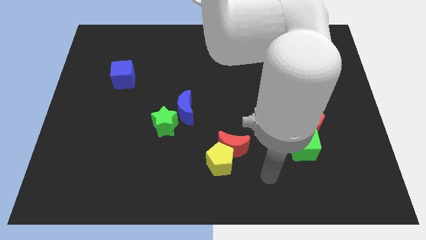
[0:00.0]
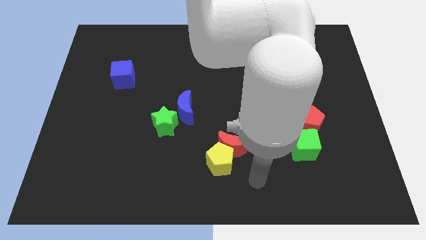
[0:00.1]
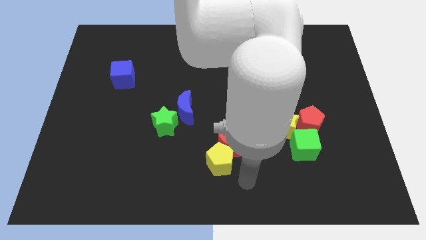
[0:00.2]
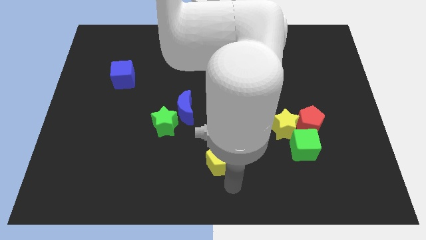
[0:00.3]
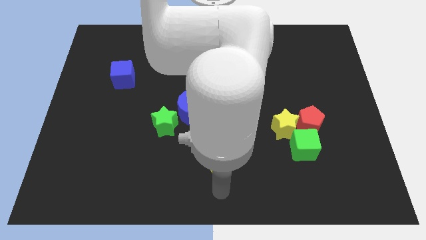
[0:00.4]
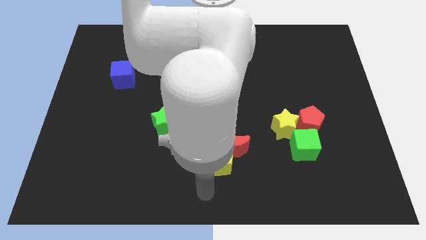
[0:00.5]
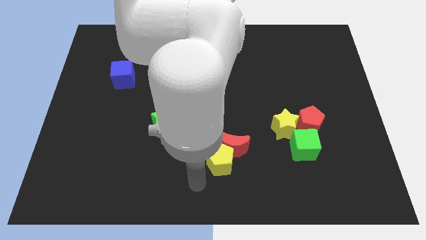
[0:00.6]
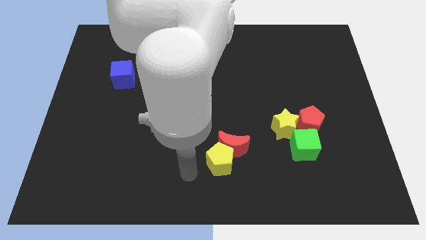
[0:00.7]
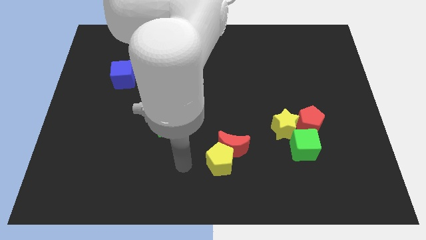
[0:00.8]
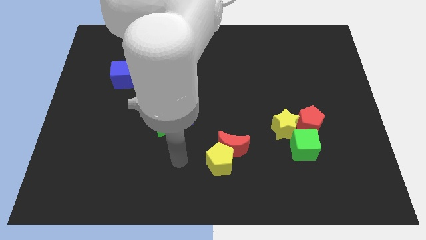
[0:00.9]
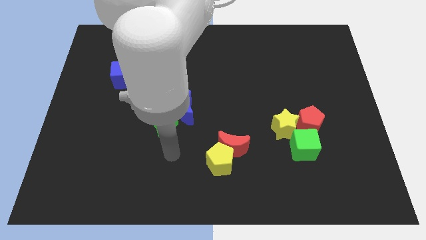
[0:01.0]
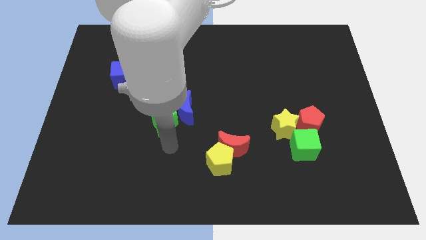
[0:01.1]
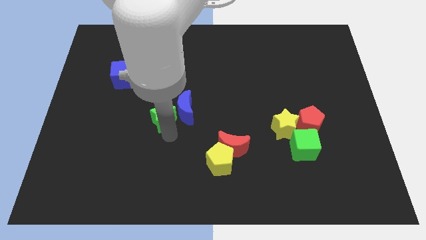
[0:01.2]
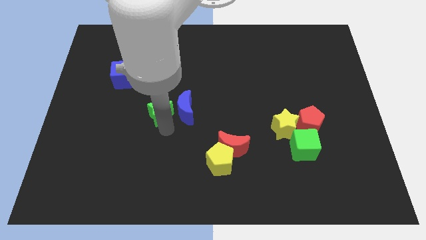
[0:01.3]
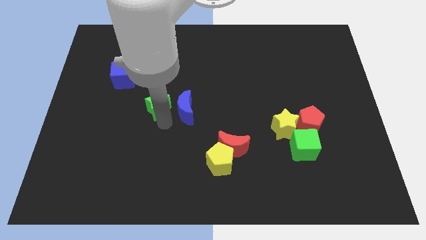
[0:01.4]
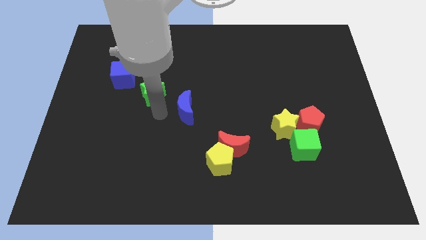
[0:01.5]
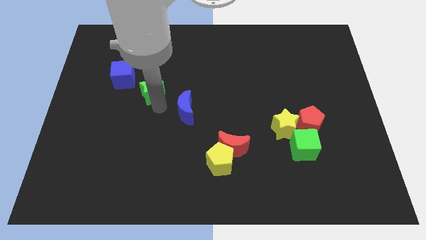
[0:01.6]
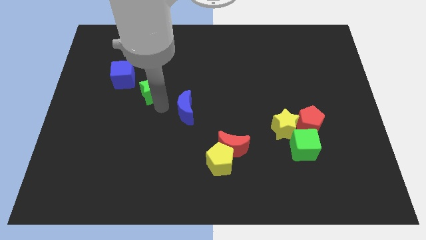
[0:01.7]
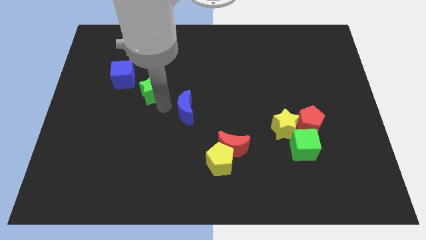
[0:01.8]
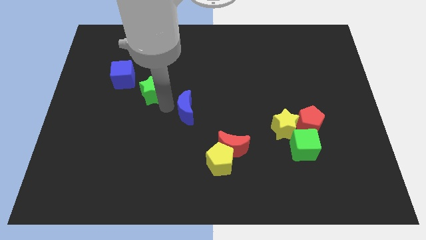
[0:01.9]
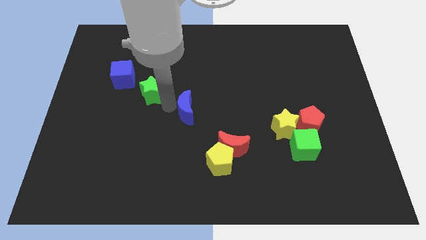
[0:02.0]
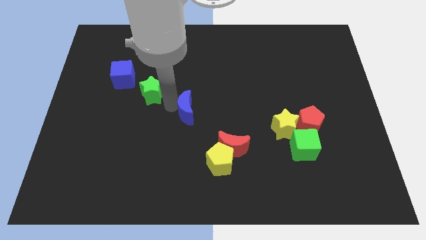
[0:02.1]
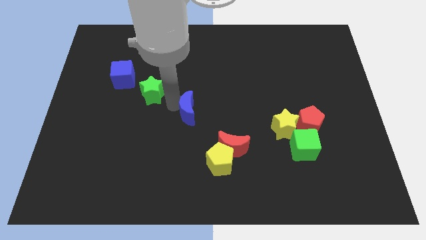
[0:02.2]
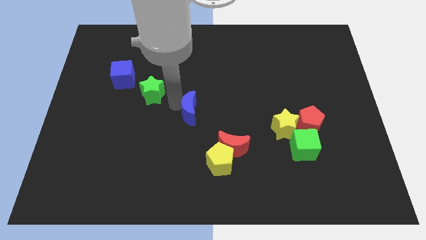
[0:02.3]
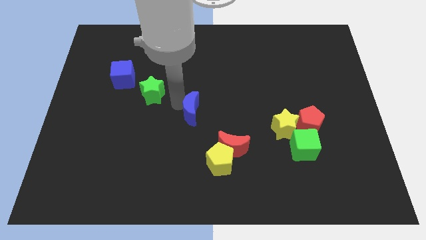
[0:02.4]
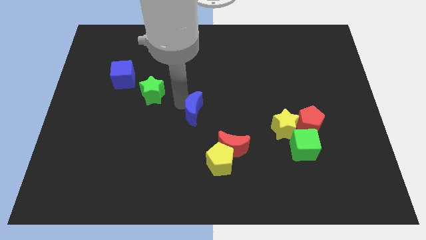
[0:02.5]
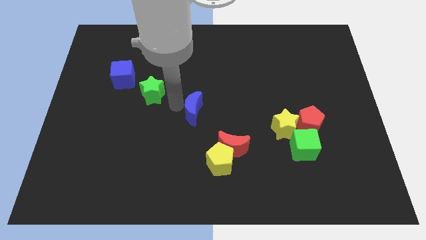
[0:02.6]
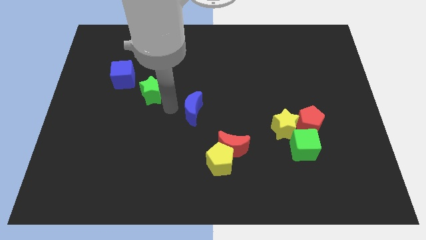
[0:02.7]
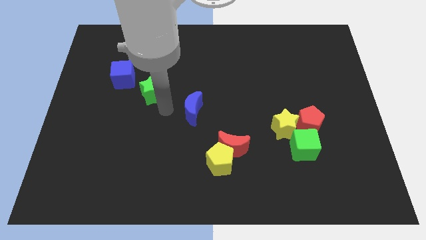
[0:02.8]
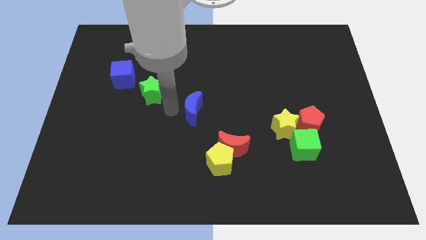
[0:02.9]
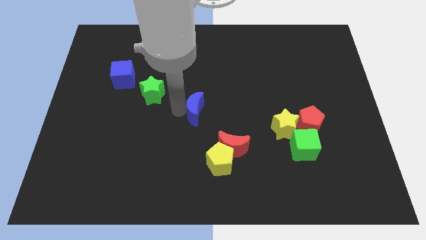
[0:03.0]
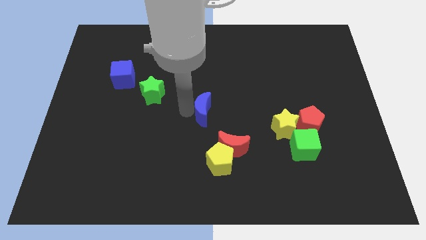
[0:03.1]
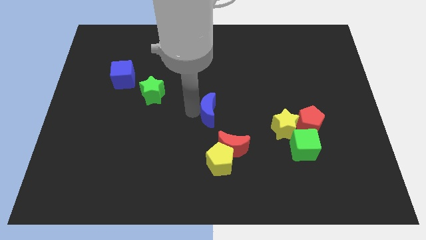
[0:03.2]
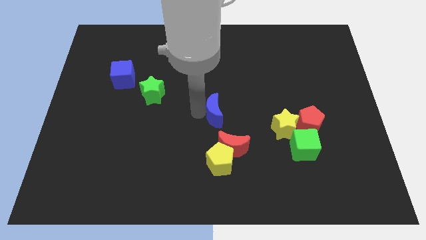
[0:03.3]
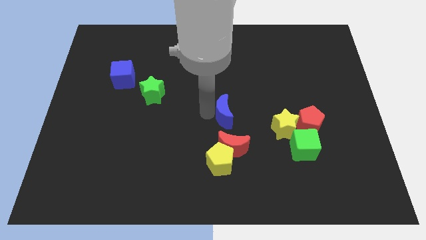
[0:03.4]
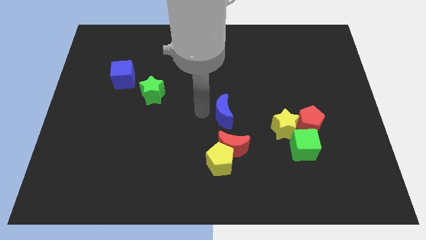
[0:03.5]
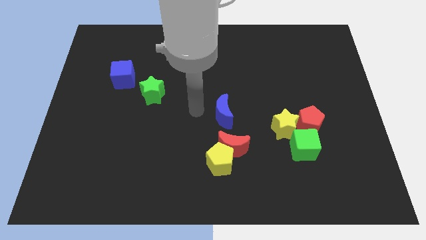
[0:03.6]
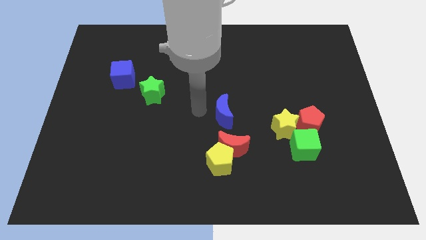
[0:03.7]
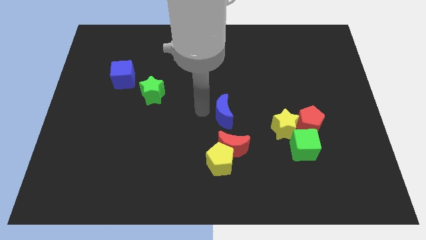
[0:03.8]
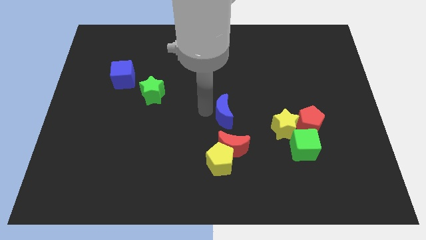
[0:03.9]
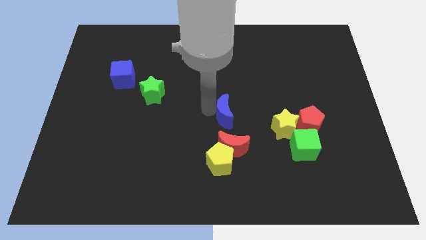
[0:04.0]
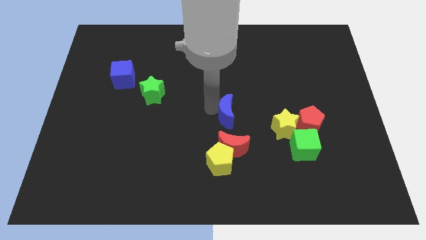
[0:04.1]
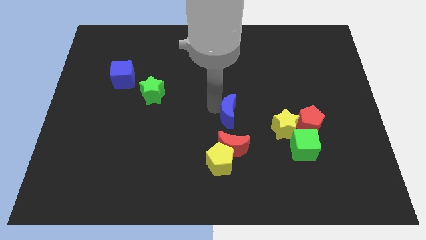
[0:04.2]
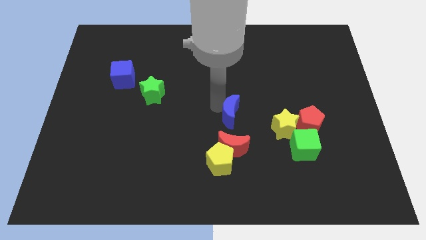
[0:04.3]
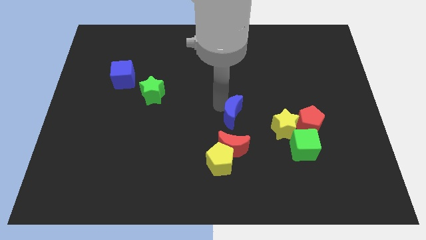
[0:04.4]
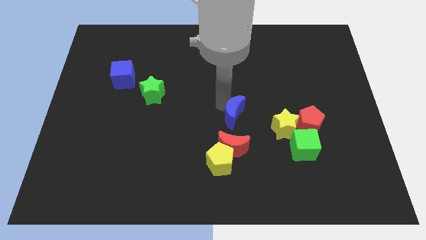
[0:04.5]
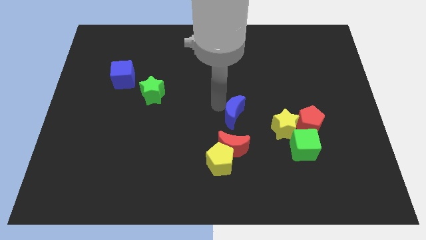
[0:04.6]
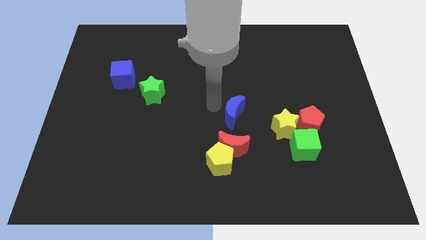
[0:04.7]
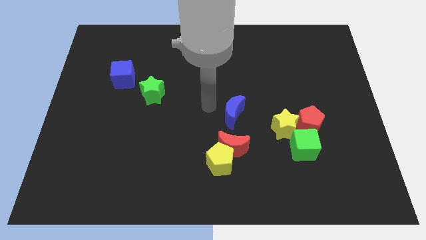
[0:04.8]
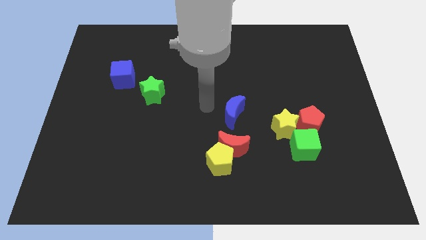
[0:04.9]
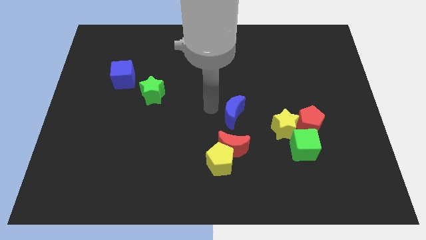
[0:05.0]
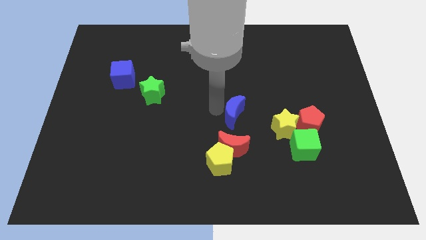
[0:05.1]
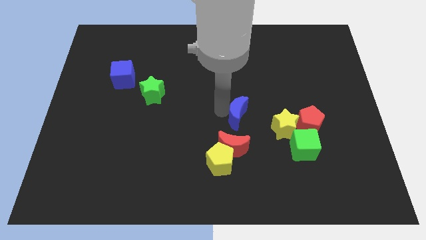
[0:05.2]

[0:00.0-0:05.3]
push the blue moon downwards and then right a bit

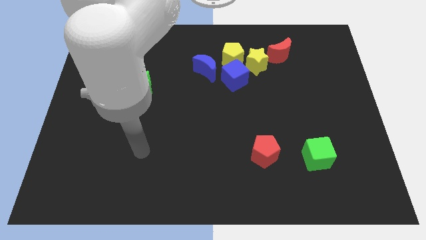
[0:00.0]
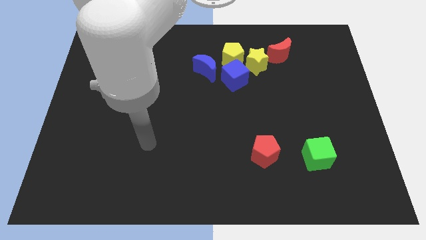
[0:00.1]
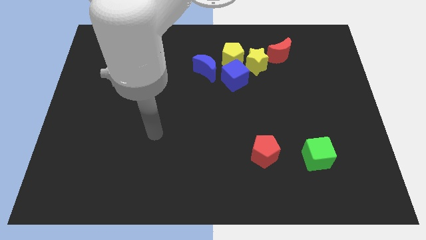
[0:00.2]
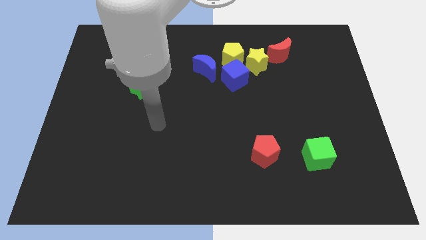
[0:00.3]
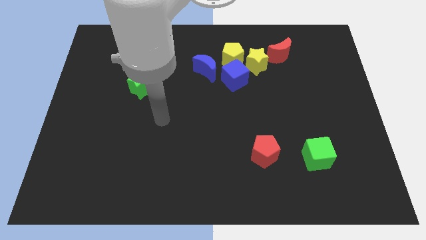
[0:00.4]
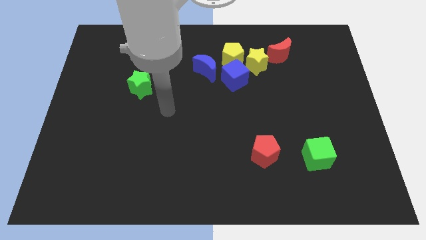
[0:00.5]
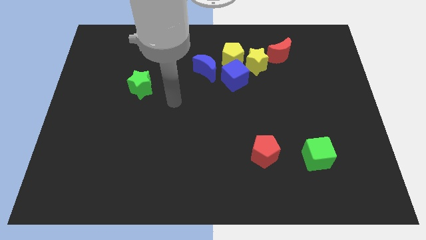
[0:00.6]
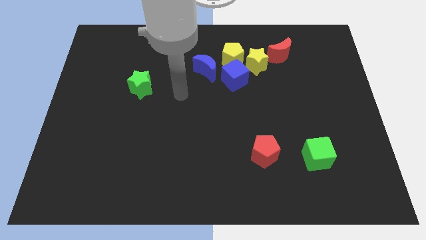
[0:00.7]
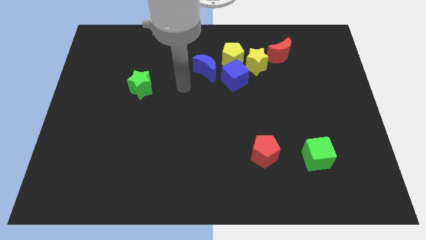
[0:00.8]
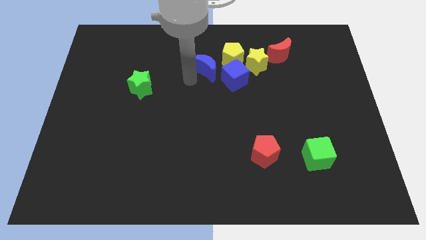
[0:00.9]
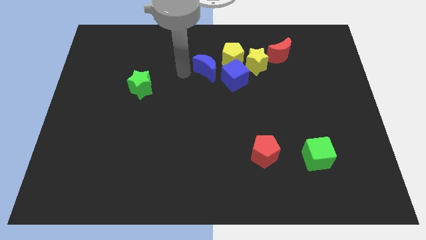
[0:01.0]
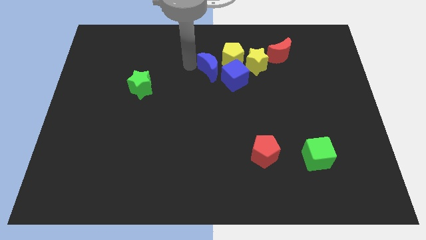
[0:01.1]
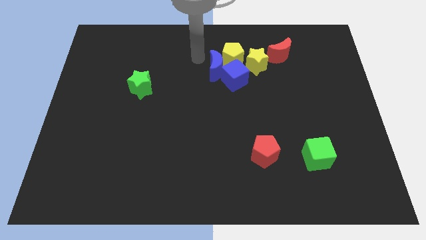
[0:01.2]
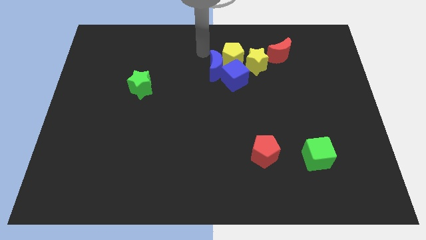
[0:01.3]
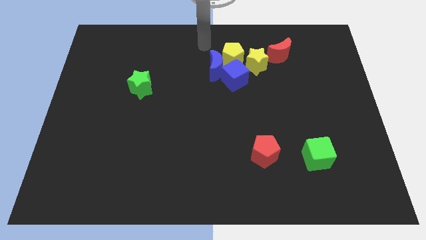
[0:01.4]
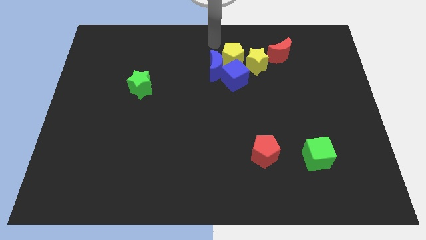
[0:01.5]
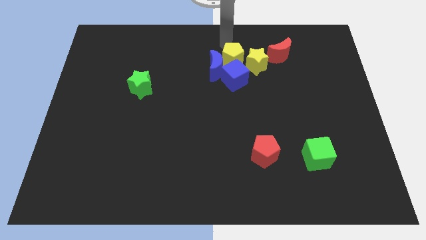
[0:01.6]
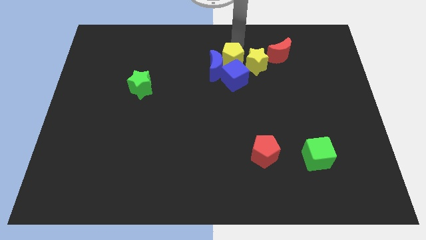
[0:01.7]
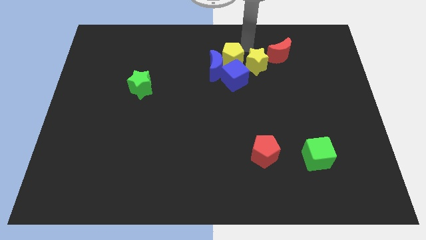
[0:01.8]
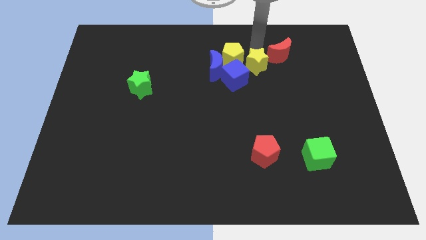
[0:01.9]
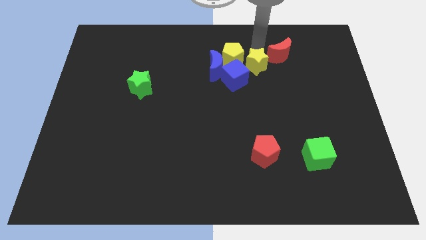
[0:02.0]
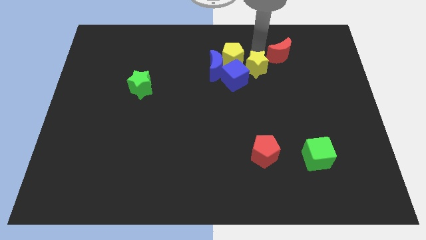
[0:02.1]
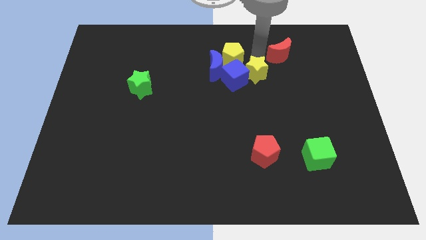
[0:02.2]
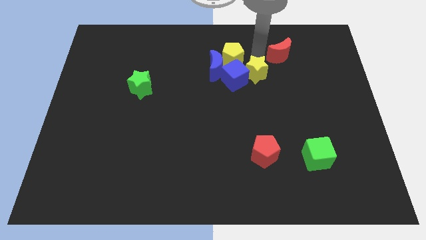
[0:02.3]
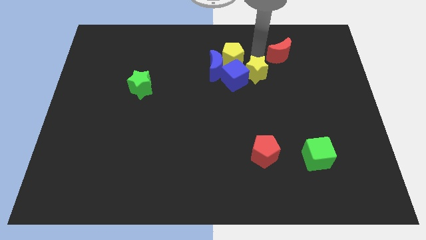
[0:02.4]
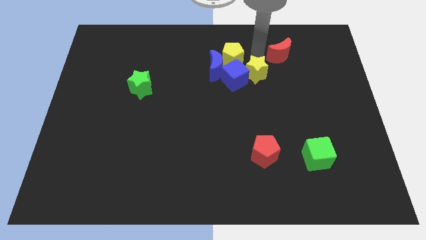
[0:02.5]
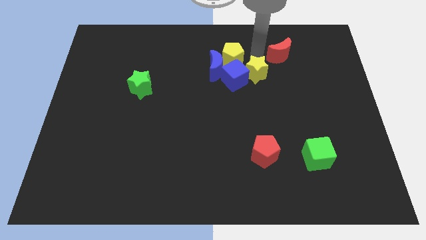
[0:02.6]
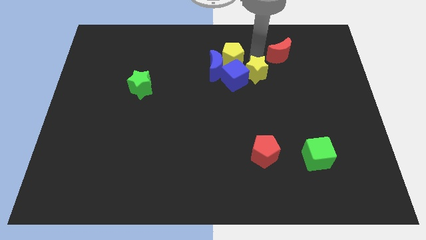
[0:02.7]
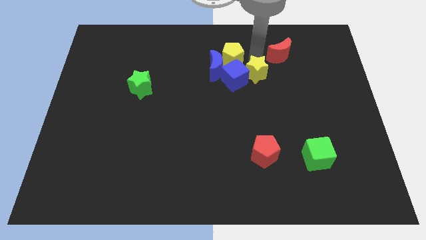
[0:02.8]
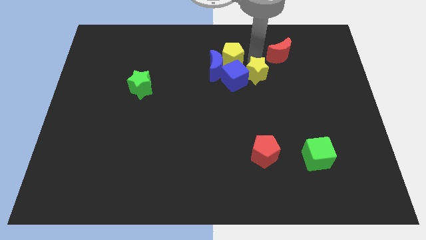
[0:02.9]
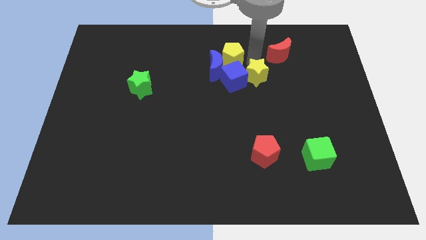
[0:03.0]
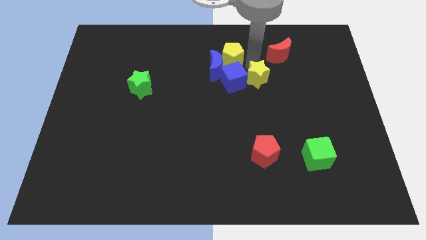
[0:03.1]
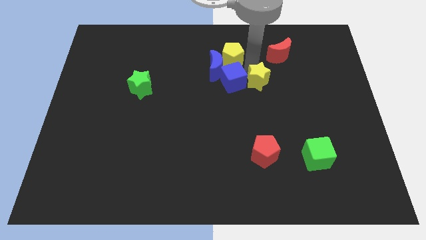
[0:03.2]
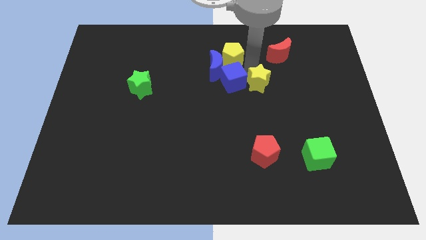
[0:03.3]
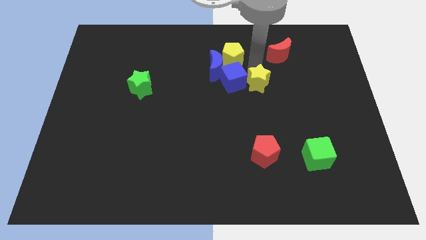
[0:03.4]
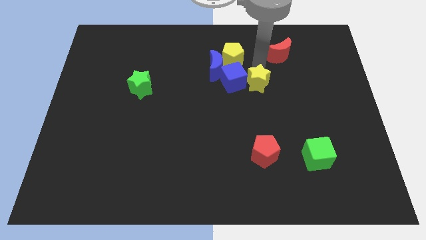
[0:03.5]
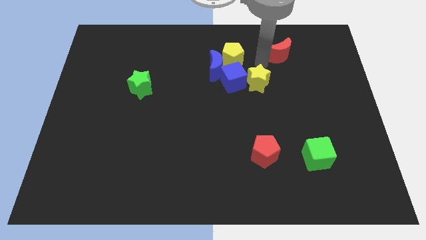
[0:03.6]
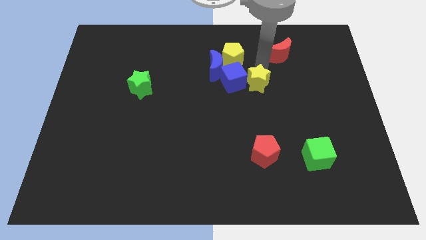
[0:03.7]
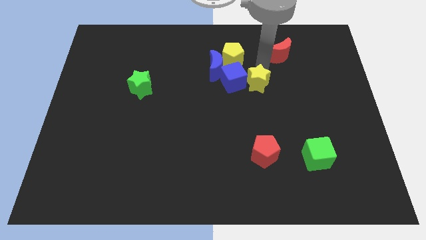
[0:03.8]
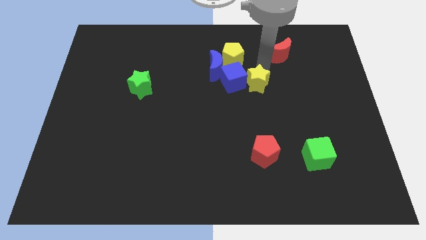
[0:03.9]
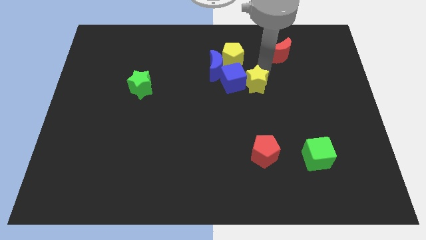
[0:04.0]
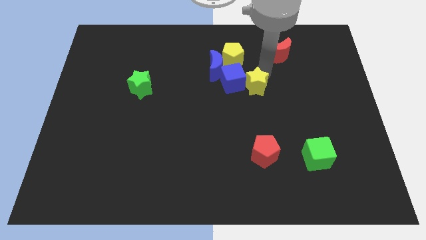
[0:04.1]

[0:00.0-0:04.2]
move the yellow star slightly down
